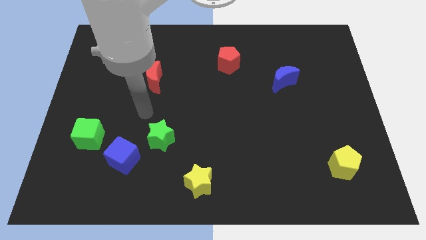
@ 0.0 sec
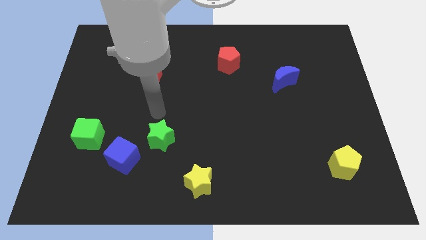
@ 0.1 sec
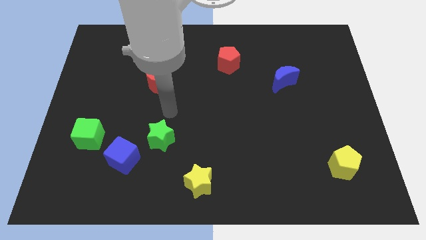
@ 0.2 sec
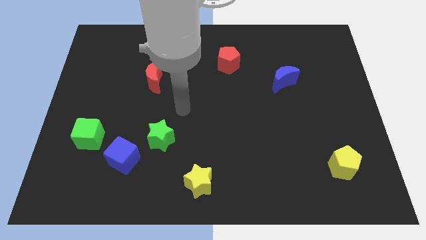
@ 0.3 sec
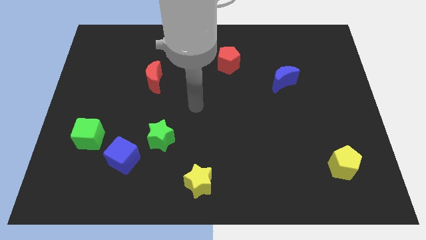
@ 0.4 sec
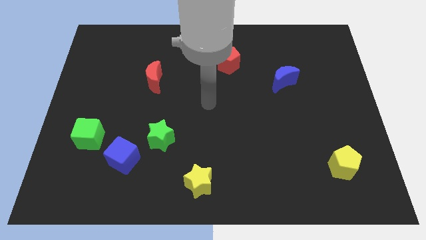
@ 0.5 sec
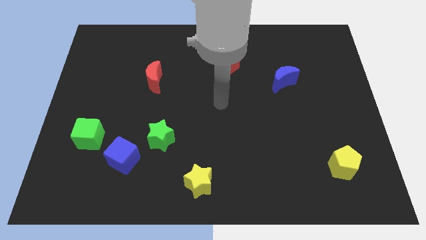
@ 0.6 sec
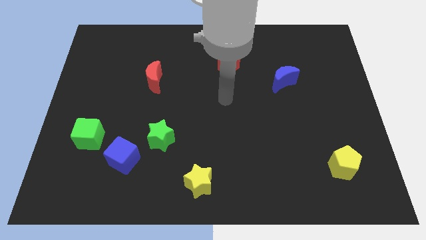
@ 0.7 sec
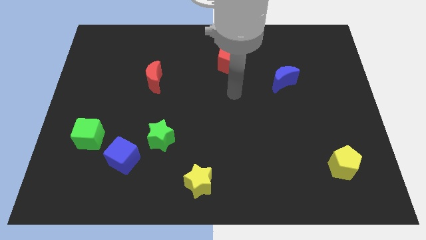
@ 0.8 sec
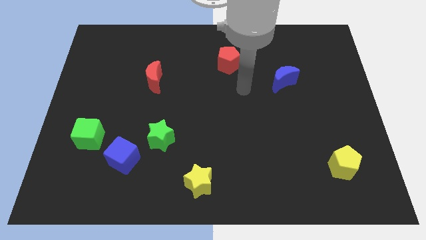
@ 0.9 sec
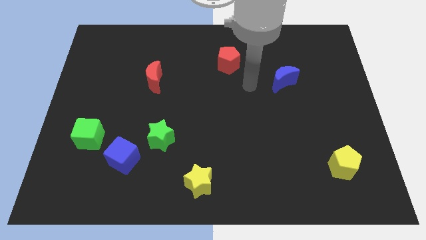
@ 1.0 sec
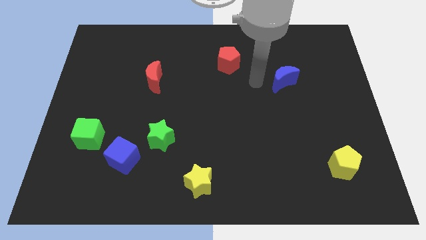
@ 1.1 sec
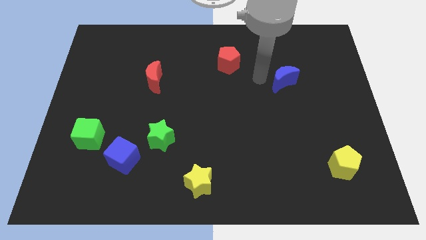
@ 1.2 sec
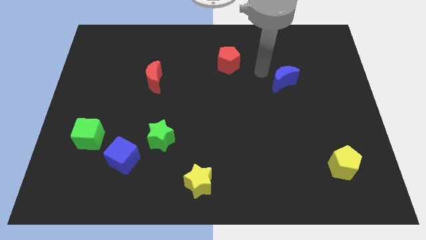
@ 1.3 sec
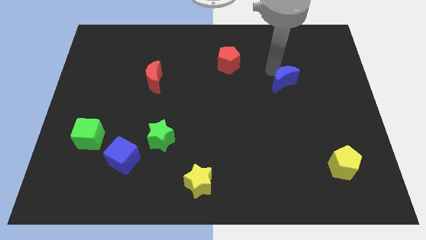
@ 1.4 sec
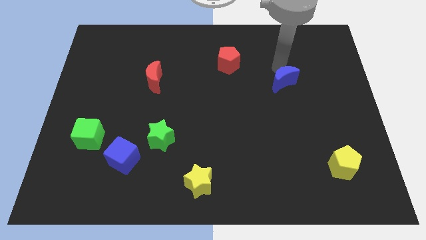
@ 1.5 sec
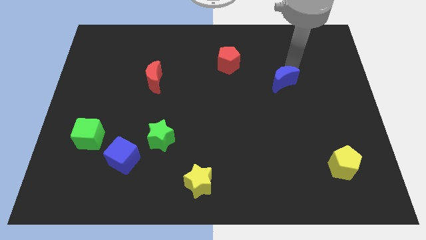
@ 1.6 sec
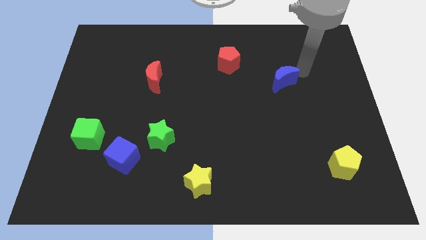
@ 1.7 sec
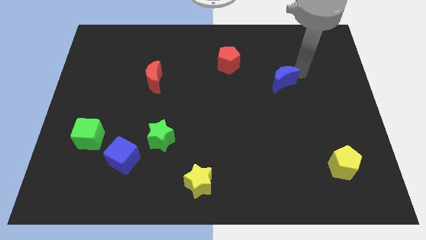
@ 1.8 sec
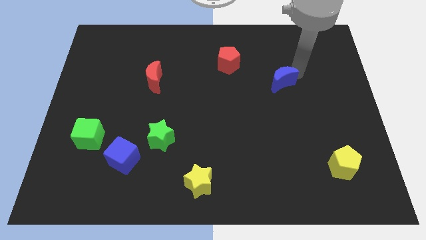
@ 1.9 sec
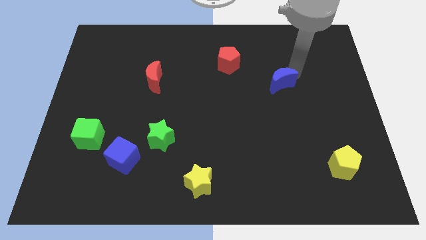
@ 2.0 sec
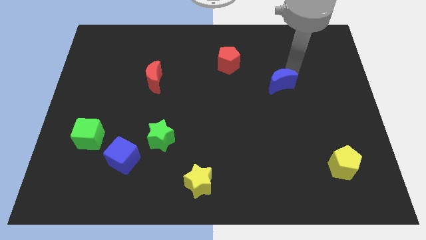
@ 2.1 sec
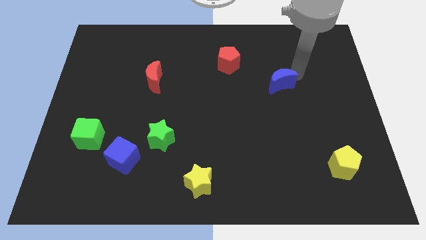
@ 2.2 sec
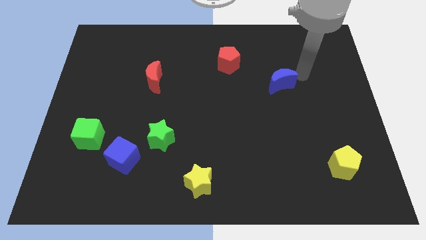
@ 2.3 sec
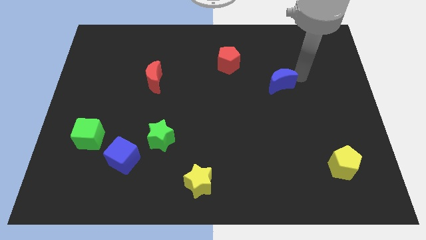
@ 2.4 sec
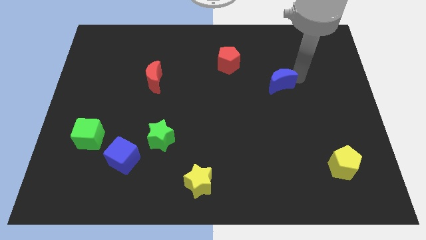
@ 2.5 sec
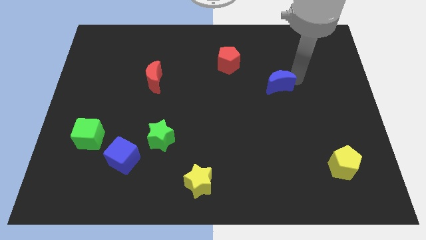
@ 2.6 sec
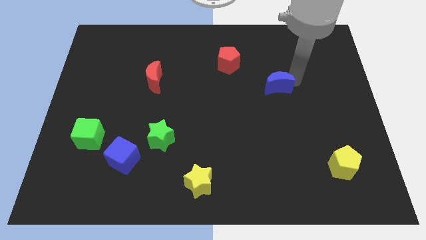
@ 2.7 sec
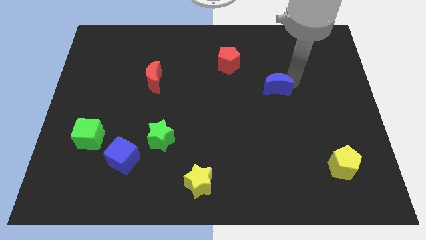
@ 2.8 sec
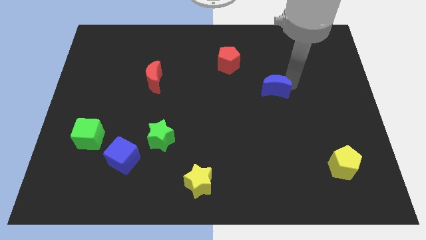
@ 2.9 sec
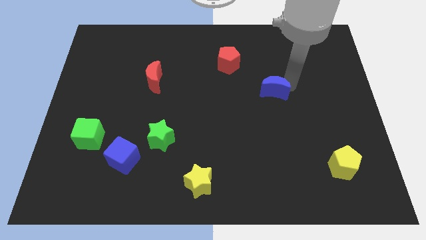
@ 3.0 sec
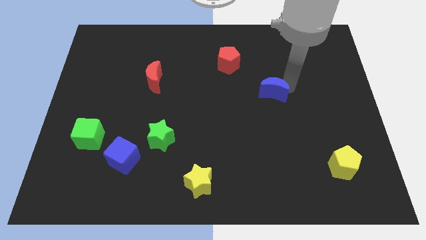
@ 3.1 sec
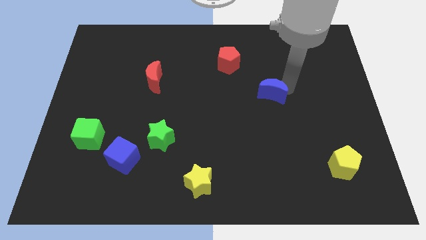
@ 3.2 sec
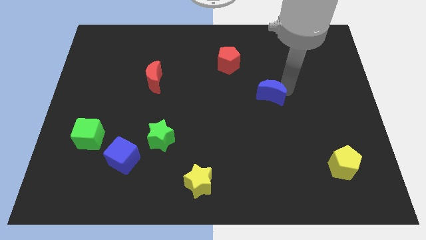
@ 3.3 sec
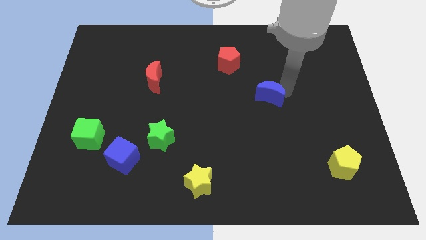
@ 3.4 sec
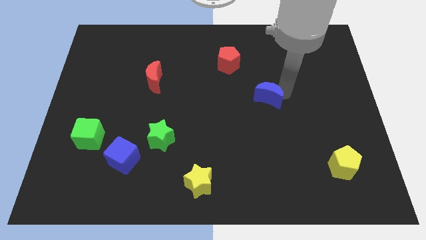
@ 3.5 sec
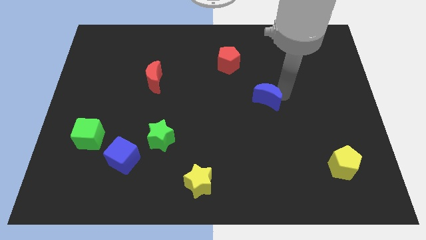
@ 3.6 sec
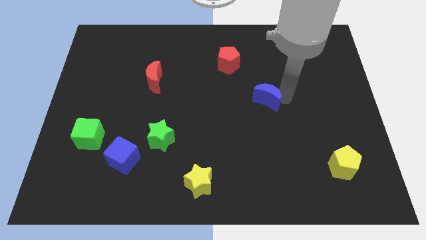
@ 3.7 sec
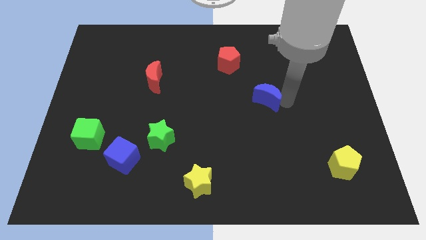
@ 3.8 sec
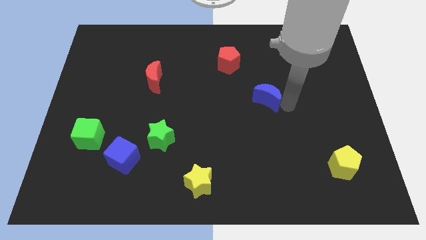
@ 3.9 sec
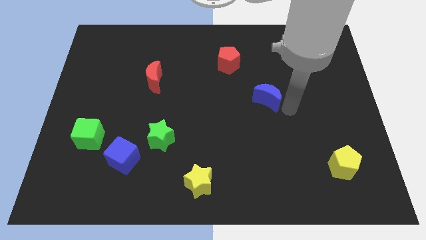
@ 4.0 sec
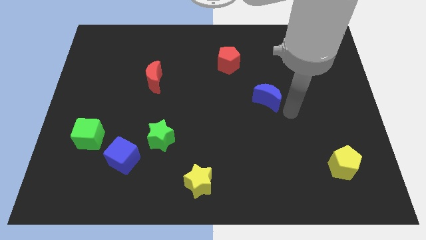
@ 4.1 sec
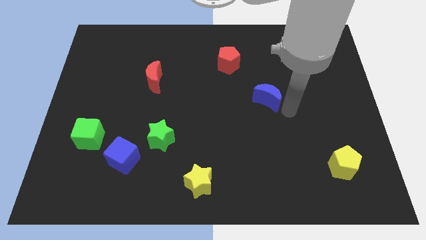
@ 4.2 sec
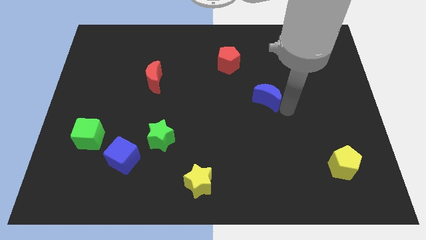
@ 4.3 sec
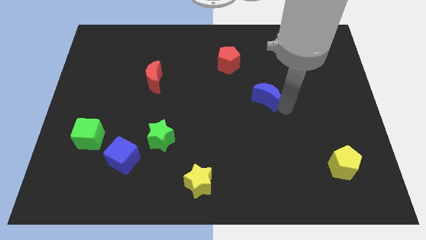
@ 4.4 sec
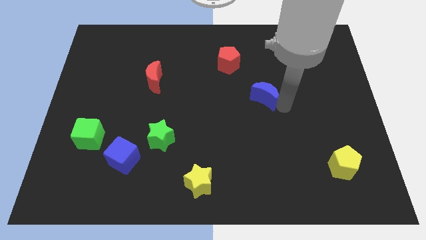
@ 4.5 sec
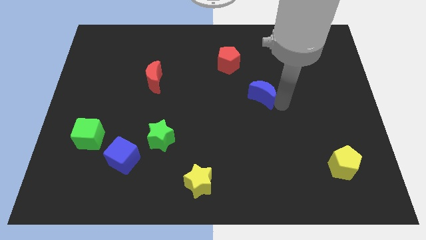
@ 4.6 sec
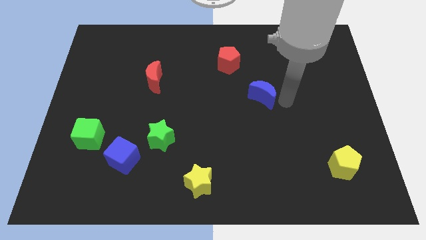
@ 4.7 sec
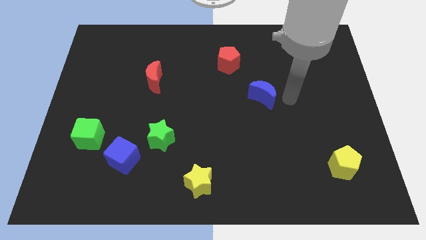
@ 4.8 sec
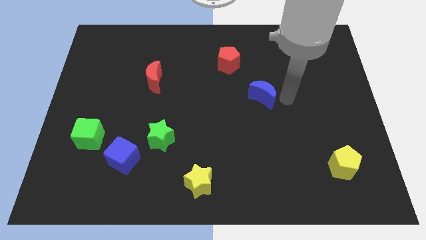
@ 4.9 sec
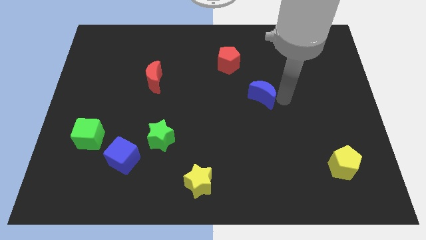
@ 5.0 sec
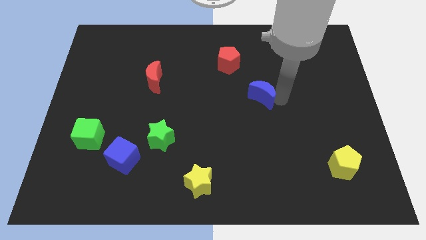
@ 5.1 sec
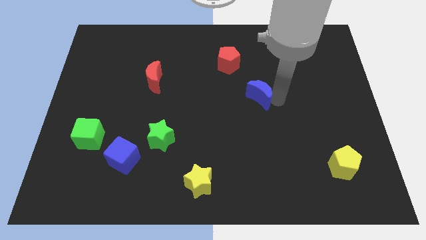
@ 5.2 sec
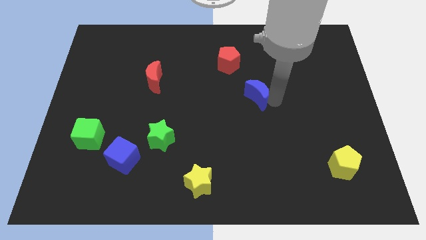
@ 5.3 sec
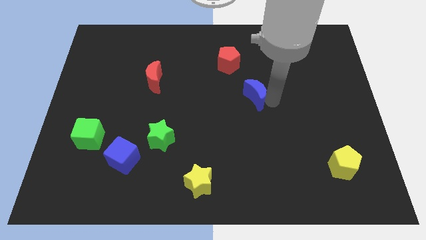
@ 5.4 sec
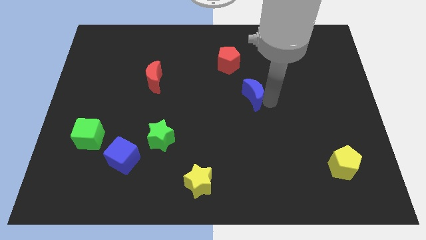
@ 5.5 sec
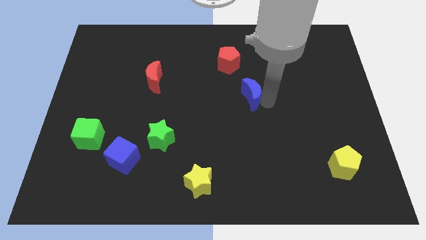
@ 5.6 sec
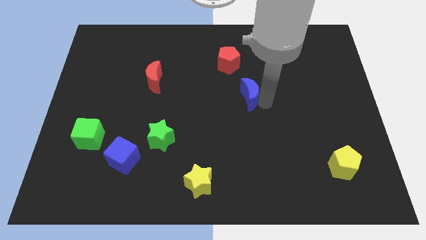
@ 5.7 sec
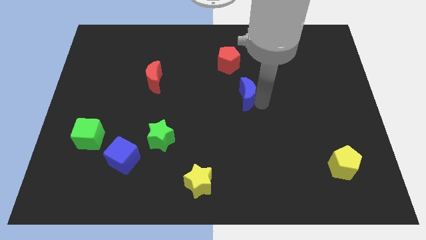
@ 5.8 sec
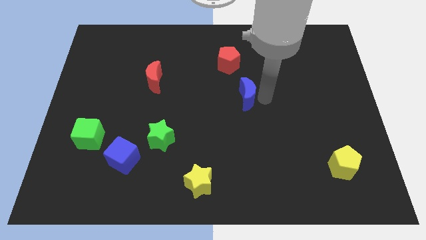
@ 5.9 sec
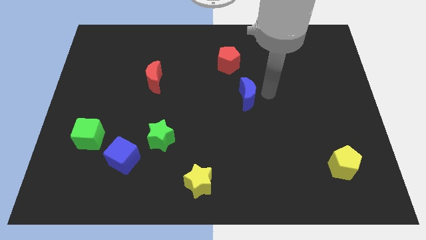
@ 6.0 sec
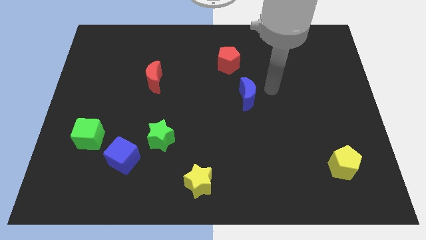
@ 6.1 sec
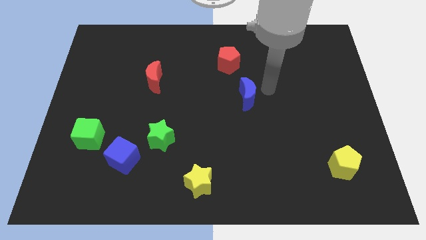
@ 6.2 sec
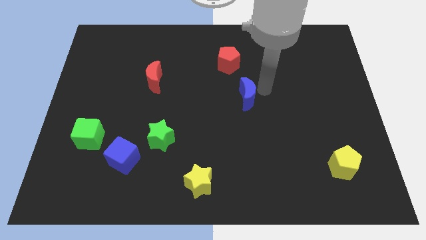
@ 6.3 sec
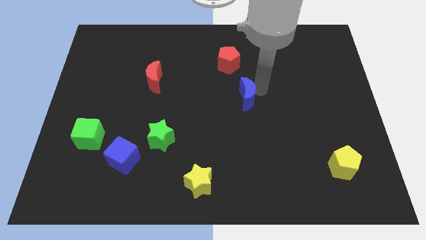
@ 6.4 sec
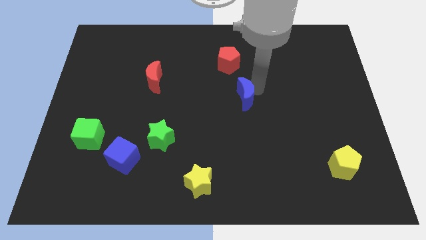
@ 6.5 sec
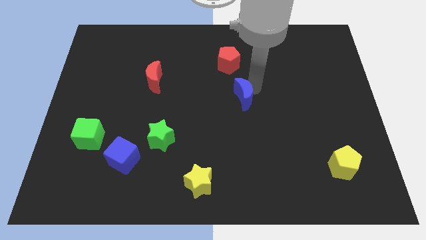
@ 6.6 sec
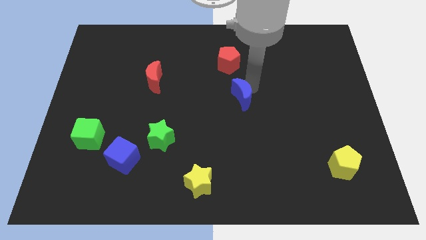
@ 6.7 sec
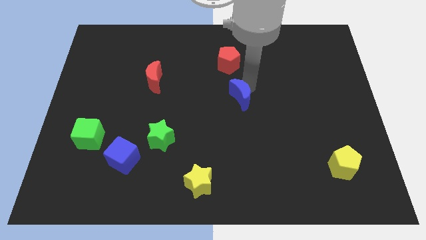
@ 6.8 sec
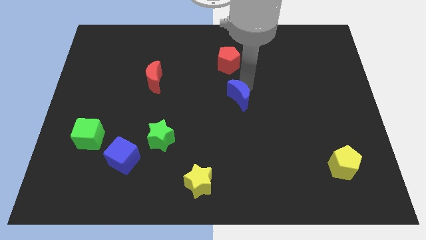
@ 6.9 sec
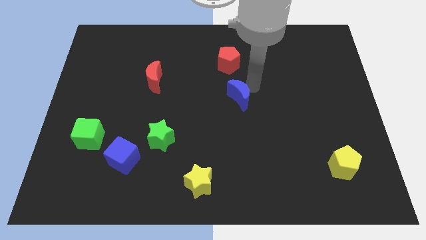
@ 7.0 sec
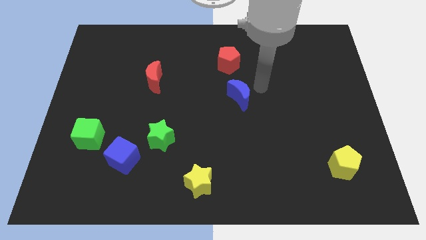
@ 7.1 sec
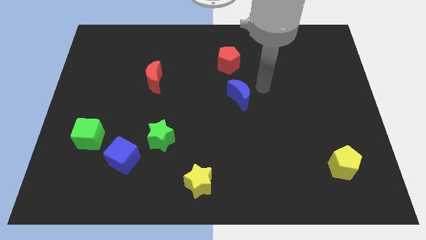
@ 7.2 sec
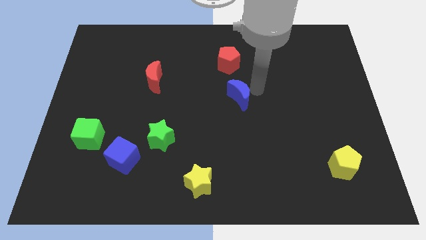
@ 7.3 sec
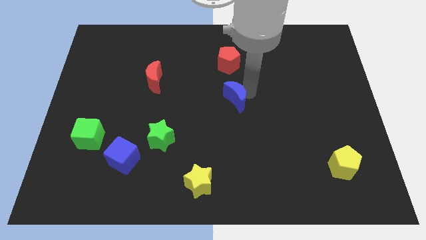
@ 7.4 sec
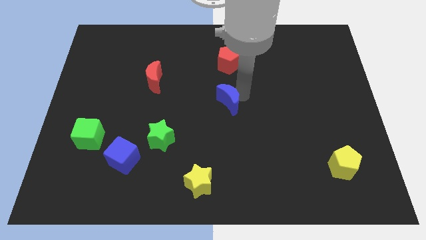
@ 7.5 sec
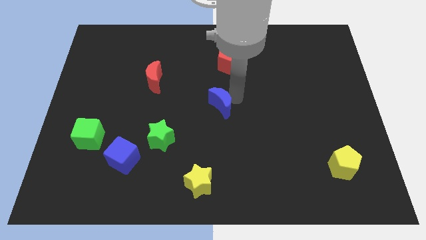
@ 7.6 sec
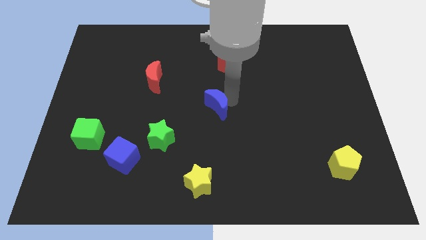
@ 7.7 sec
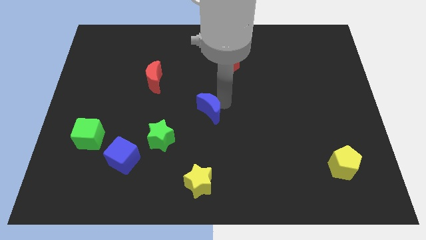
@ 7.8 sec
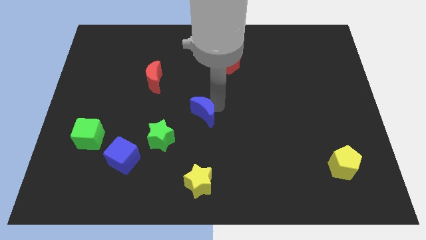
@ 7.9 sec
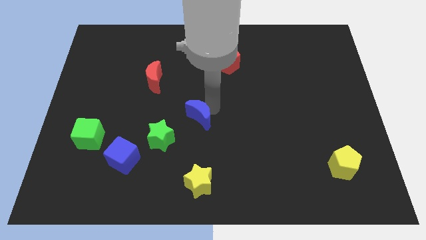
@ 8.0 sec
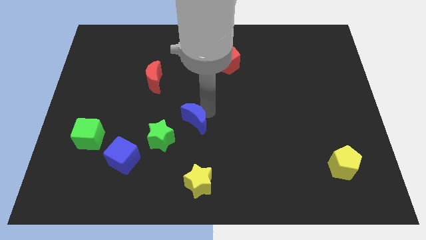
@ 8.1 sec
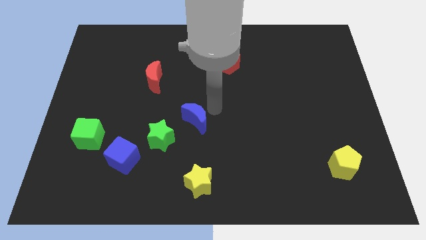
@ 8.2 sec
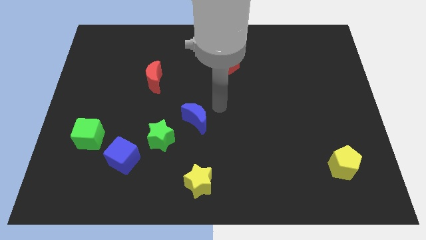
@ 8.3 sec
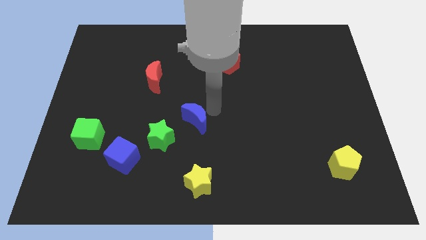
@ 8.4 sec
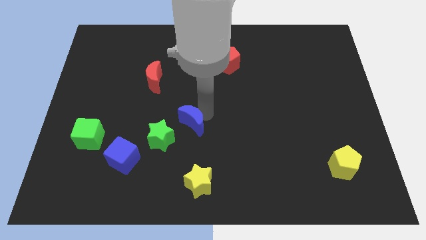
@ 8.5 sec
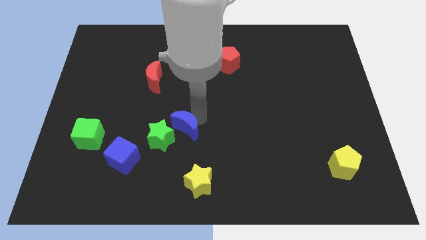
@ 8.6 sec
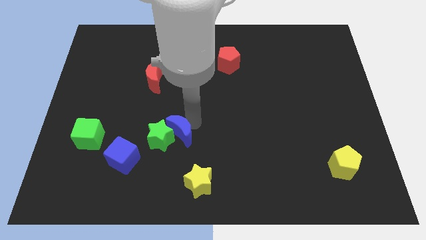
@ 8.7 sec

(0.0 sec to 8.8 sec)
slide the blue moon to the green star
